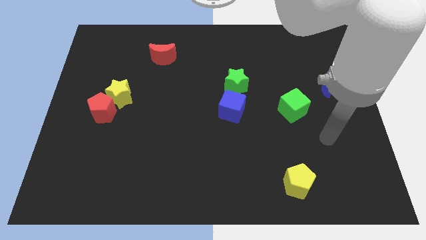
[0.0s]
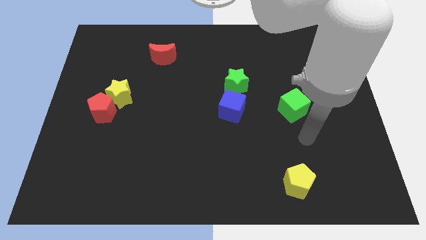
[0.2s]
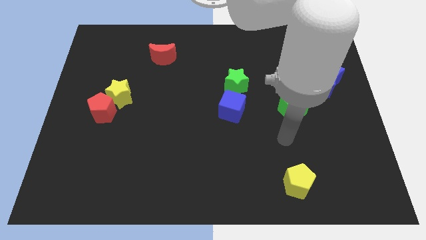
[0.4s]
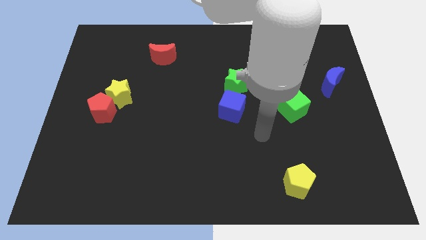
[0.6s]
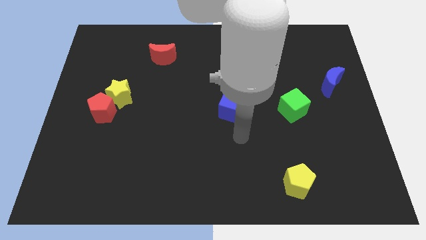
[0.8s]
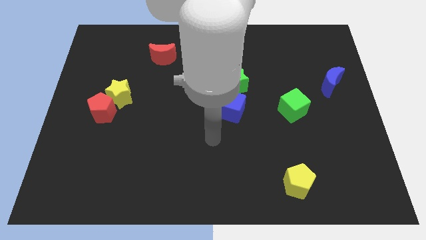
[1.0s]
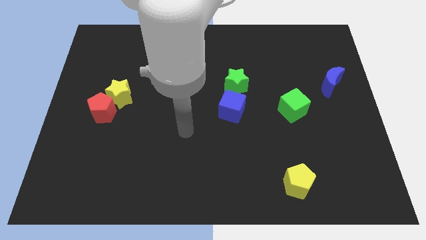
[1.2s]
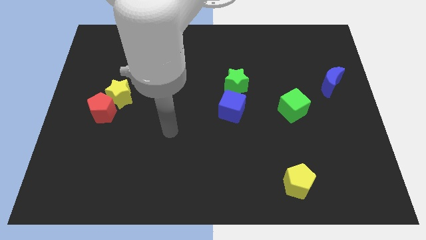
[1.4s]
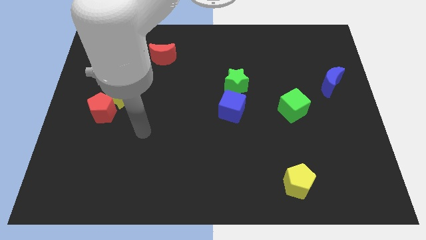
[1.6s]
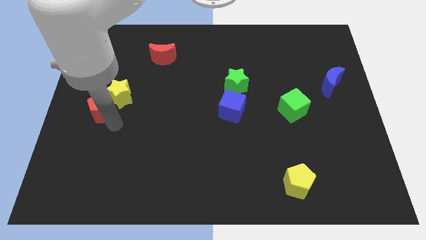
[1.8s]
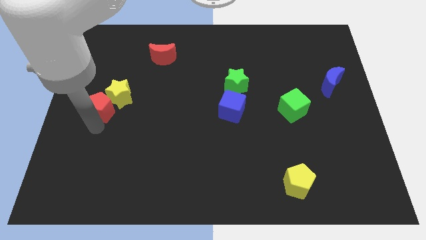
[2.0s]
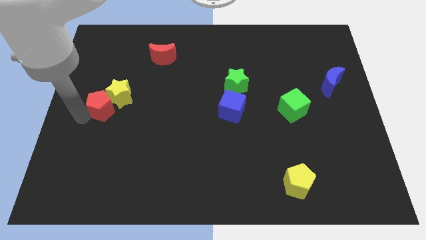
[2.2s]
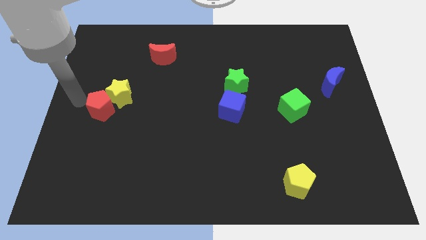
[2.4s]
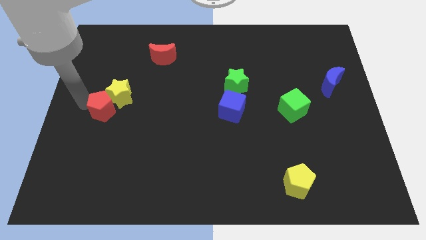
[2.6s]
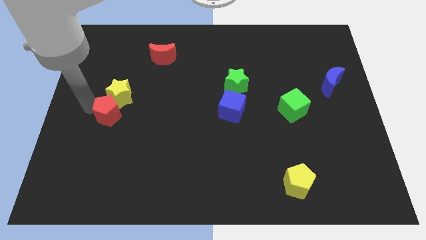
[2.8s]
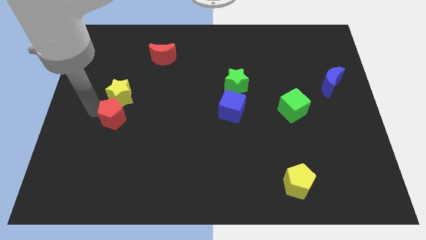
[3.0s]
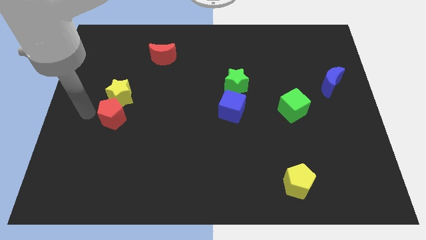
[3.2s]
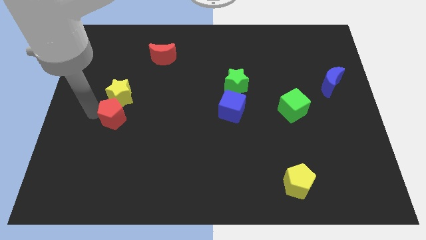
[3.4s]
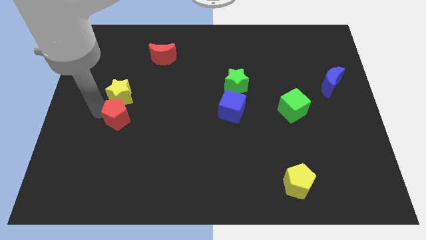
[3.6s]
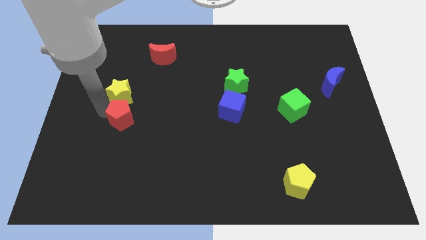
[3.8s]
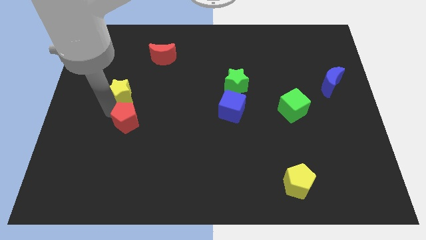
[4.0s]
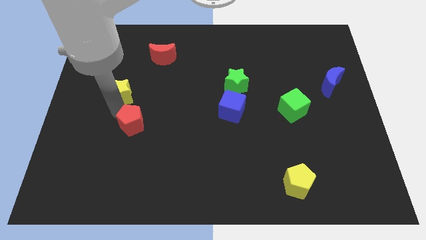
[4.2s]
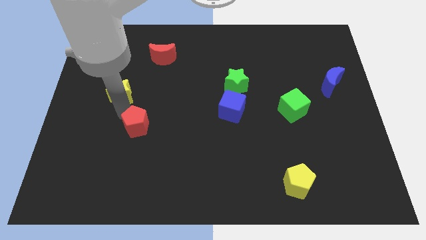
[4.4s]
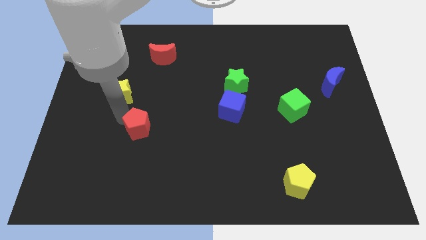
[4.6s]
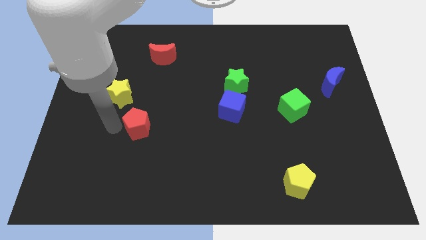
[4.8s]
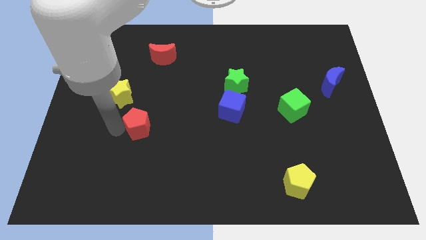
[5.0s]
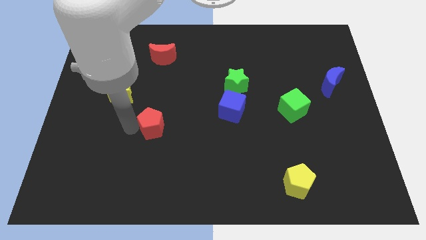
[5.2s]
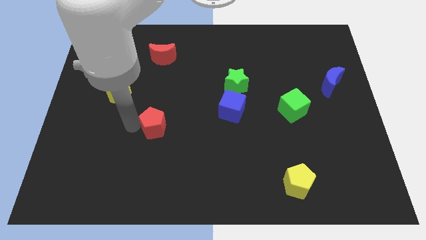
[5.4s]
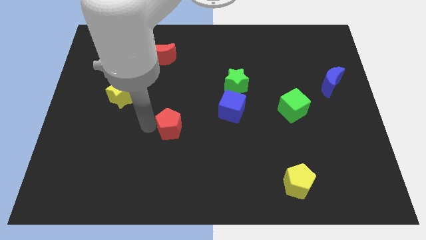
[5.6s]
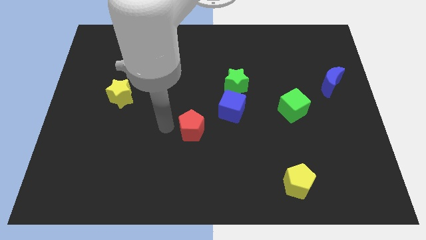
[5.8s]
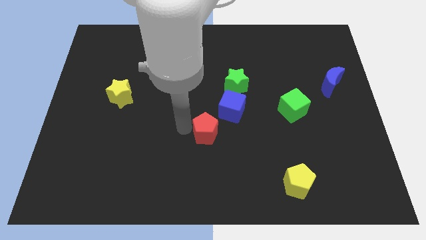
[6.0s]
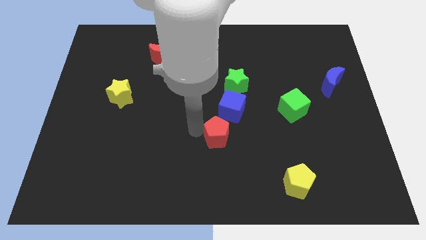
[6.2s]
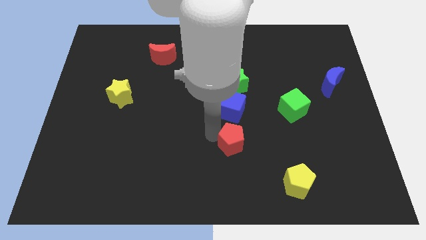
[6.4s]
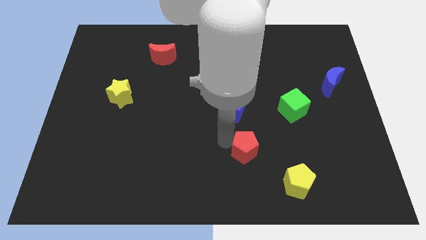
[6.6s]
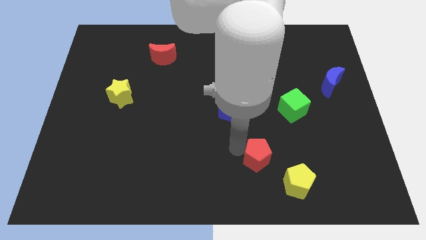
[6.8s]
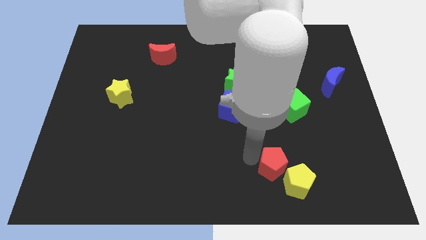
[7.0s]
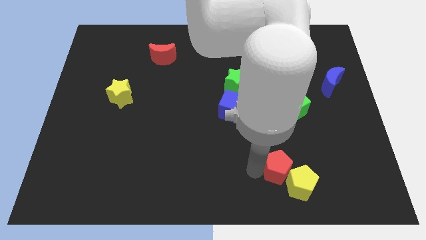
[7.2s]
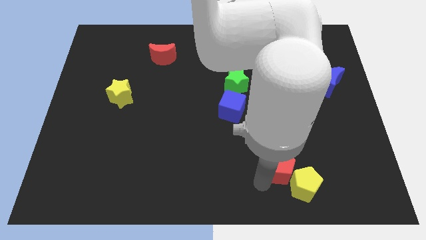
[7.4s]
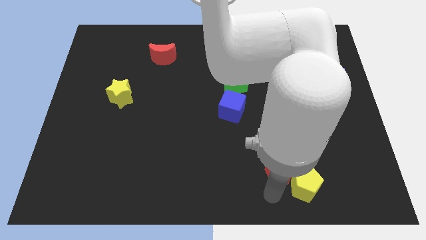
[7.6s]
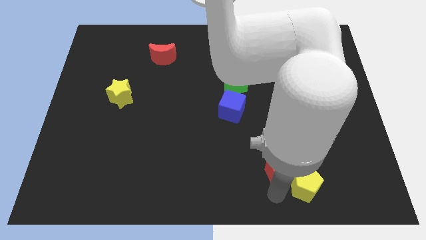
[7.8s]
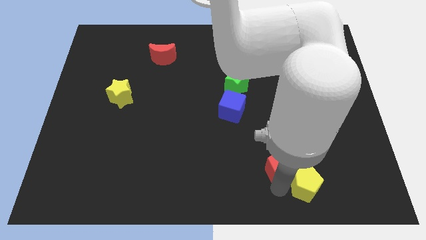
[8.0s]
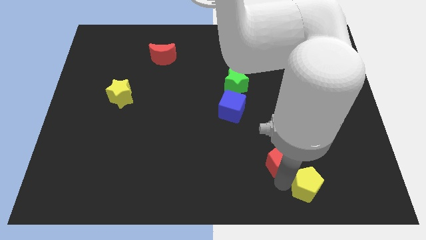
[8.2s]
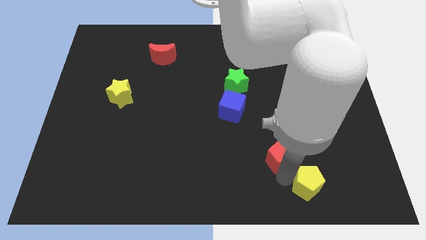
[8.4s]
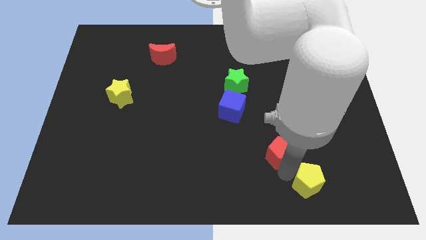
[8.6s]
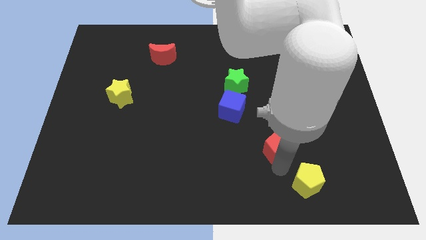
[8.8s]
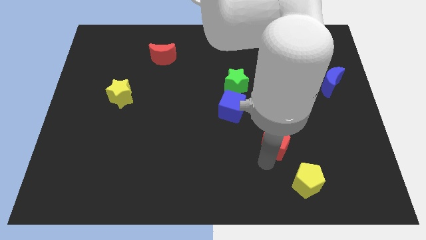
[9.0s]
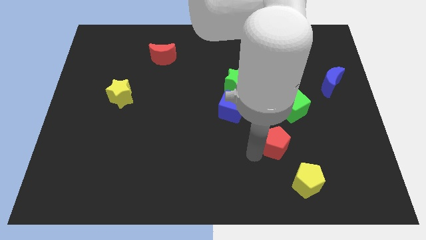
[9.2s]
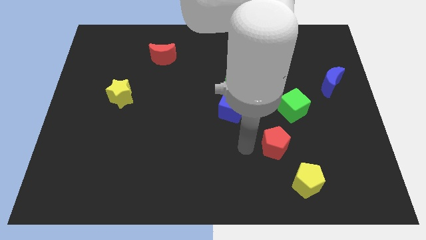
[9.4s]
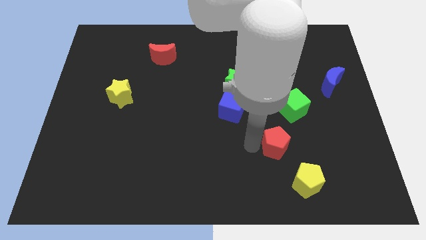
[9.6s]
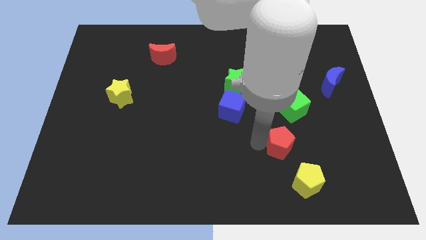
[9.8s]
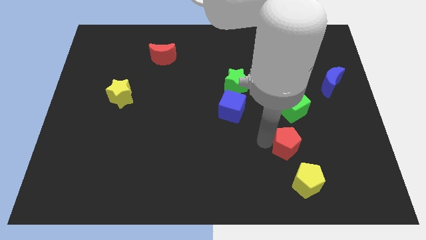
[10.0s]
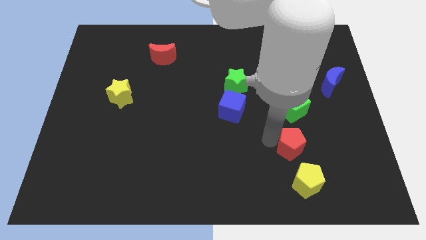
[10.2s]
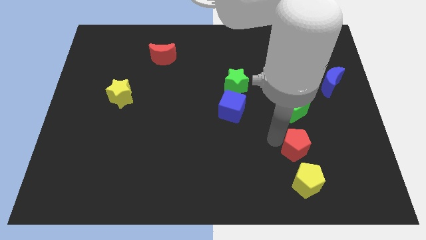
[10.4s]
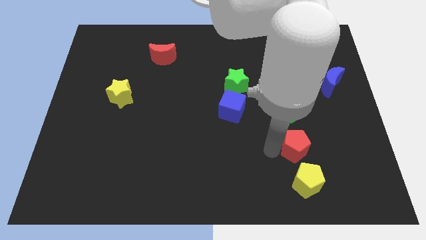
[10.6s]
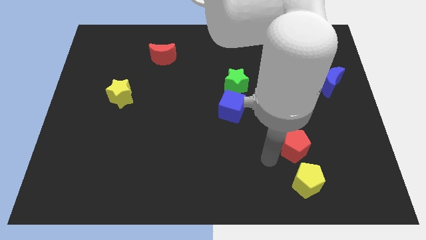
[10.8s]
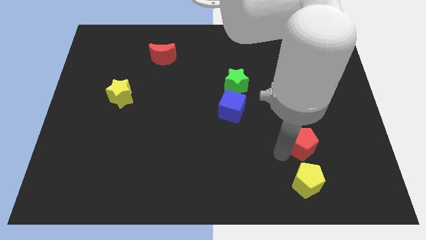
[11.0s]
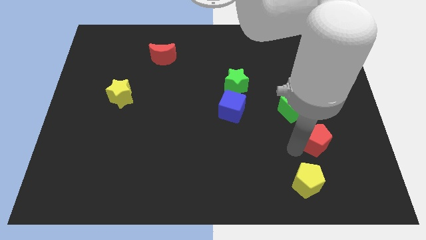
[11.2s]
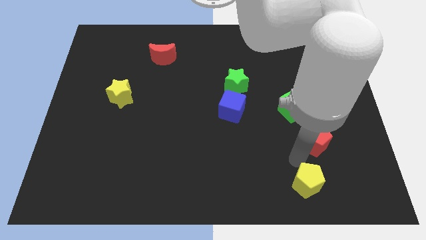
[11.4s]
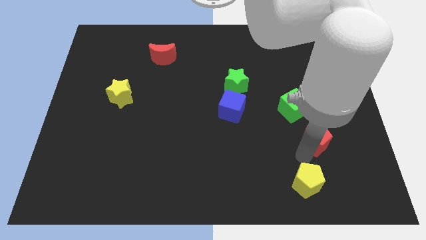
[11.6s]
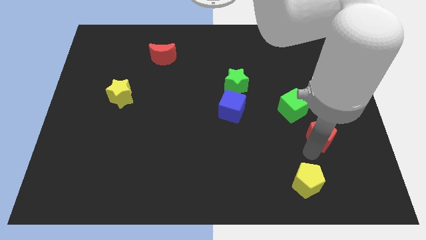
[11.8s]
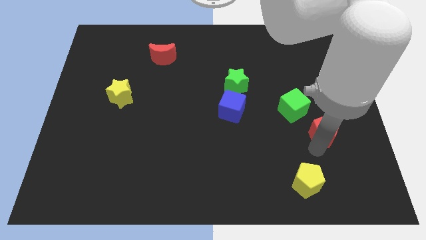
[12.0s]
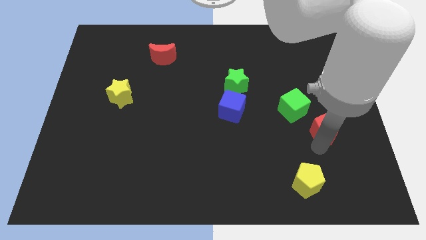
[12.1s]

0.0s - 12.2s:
push the red pentagon to the bottom side of the blue moon

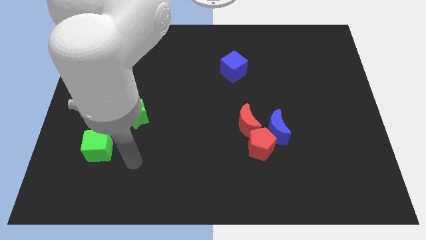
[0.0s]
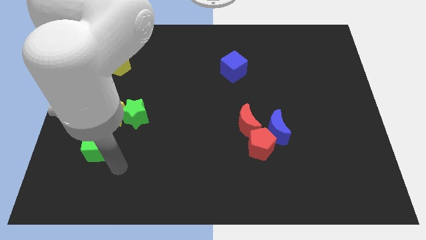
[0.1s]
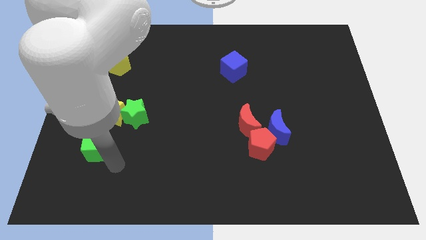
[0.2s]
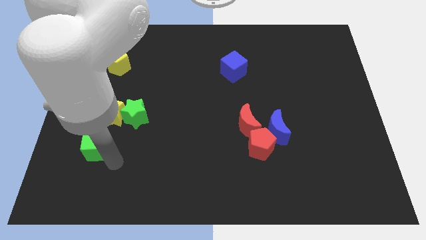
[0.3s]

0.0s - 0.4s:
slide the green cube diagonally down and to the left of the yellow star
